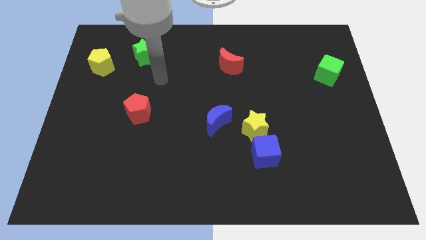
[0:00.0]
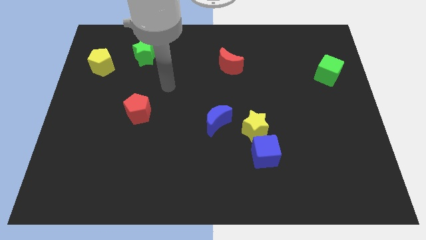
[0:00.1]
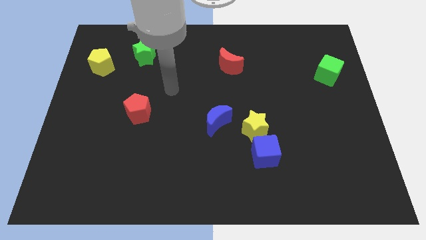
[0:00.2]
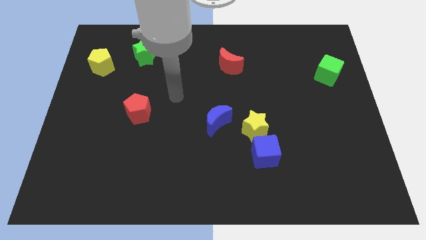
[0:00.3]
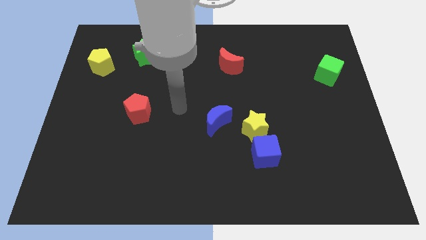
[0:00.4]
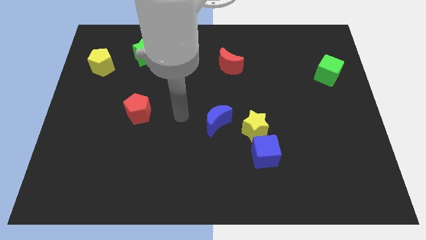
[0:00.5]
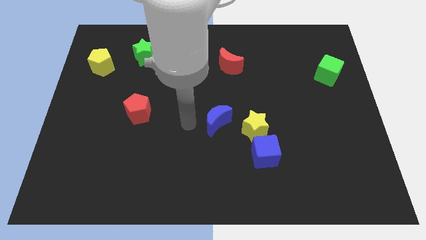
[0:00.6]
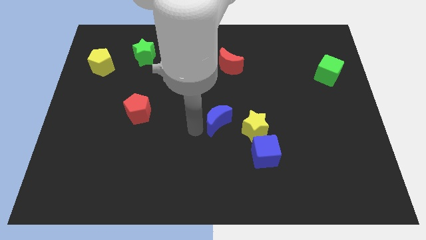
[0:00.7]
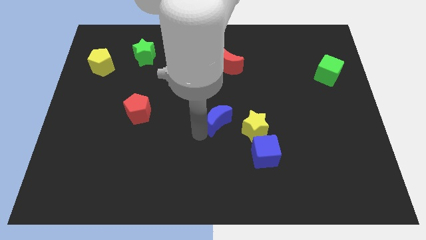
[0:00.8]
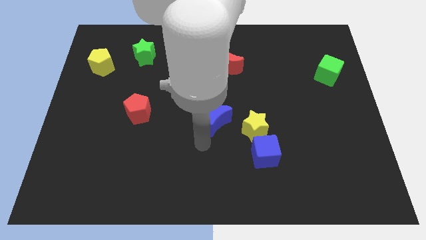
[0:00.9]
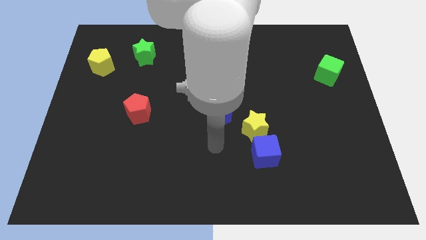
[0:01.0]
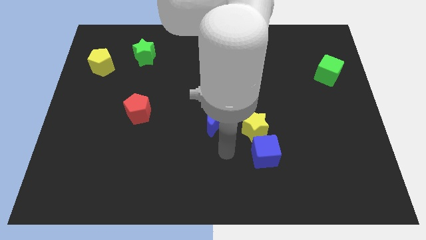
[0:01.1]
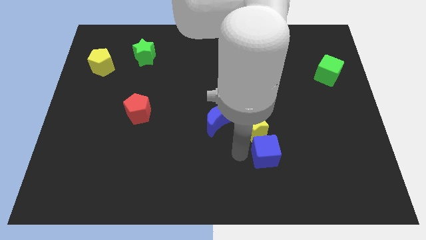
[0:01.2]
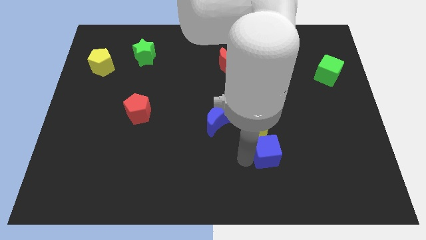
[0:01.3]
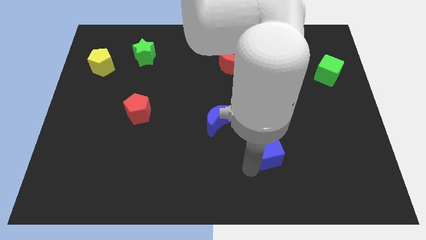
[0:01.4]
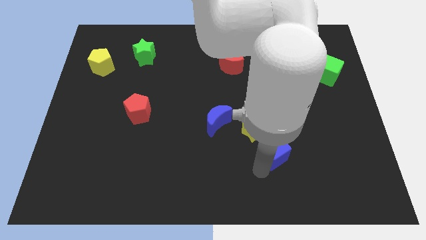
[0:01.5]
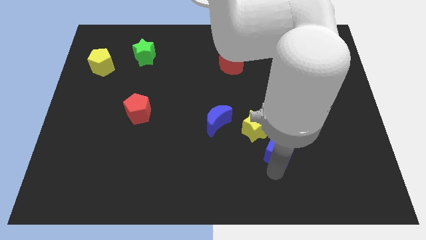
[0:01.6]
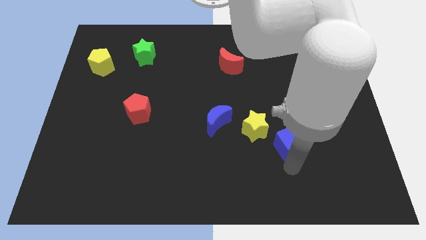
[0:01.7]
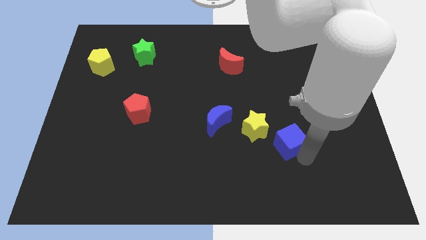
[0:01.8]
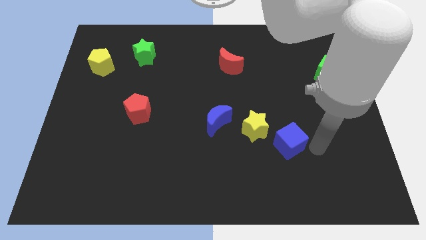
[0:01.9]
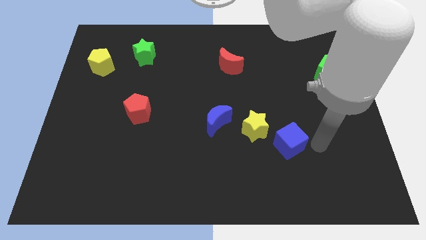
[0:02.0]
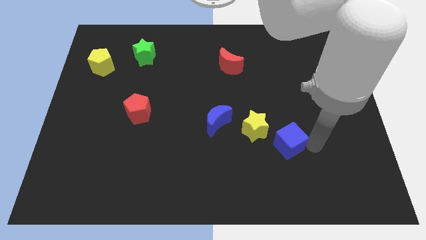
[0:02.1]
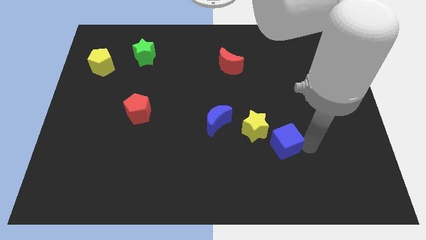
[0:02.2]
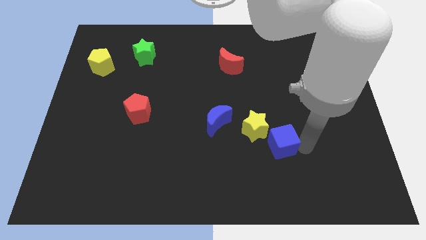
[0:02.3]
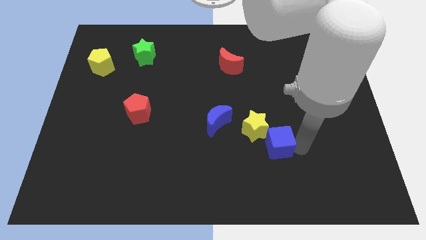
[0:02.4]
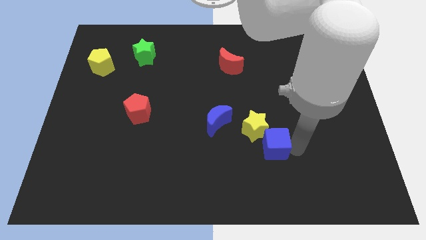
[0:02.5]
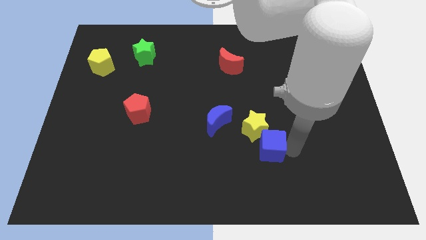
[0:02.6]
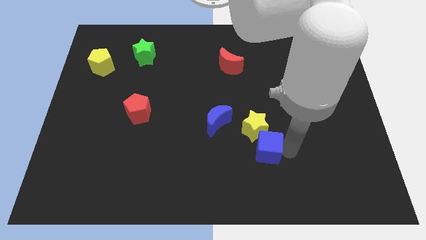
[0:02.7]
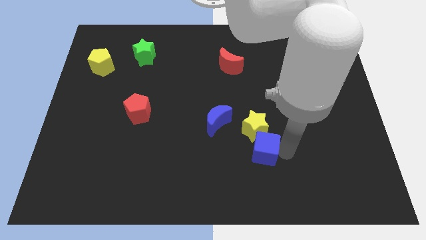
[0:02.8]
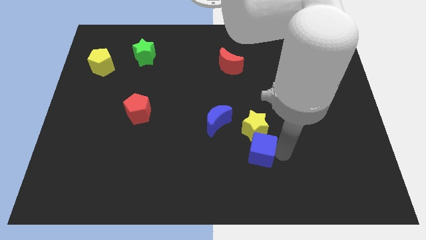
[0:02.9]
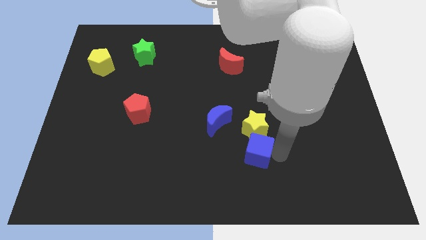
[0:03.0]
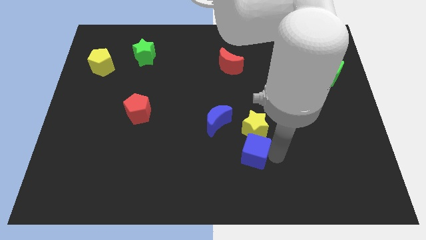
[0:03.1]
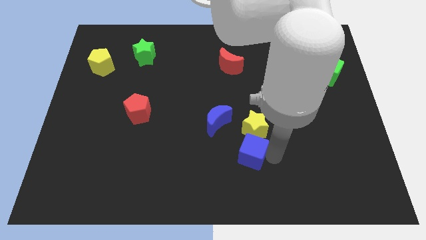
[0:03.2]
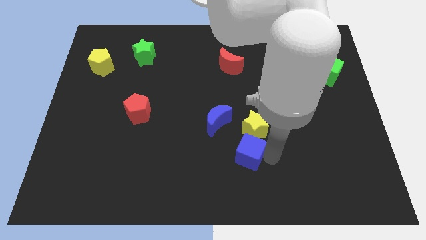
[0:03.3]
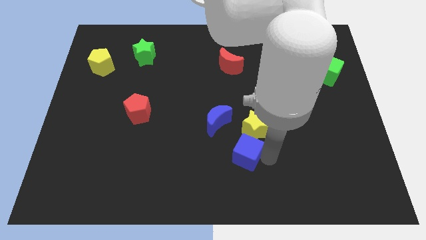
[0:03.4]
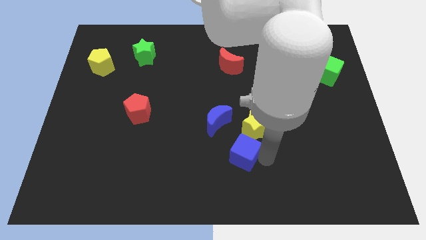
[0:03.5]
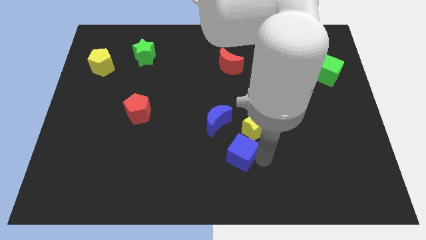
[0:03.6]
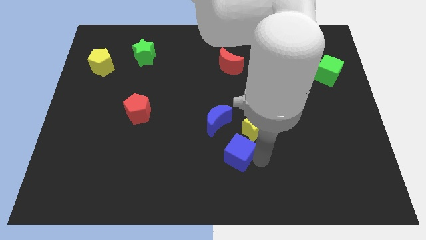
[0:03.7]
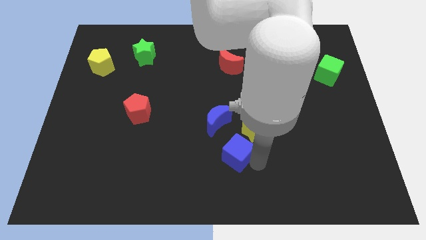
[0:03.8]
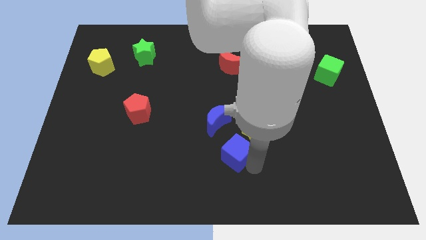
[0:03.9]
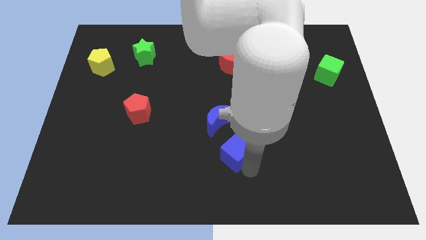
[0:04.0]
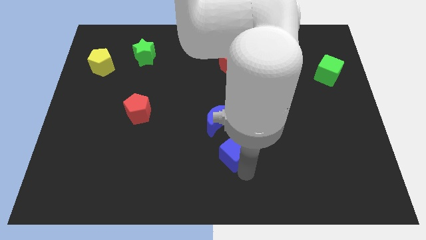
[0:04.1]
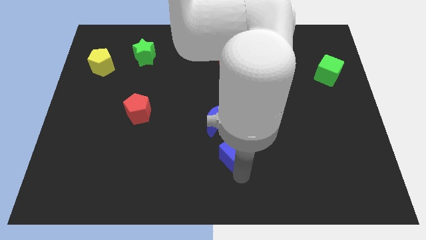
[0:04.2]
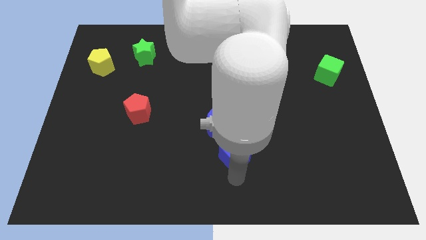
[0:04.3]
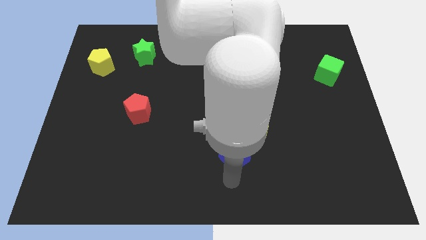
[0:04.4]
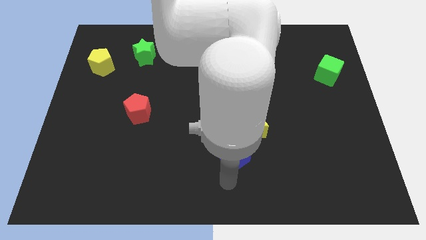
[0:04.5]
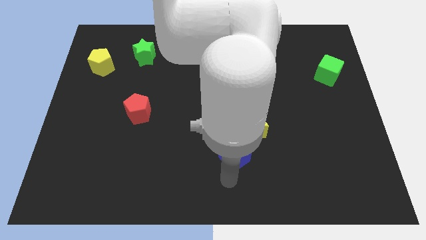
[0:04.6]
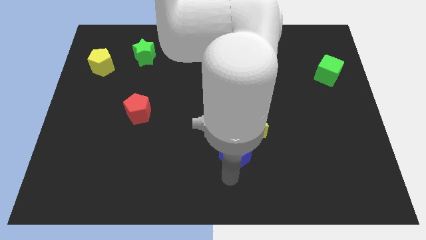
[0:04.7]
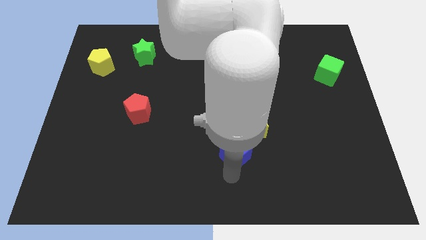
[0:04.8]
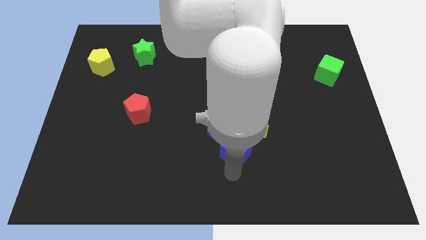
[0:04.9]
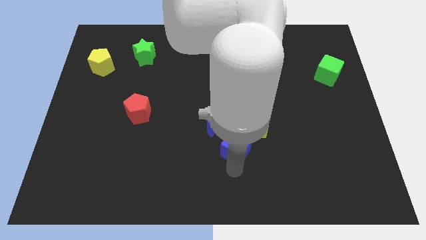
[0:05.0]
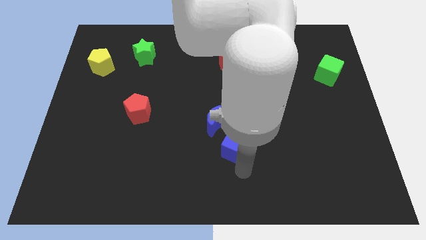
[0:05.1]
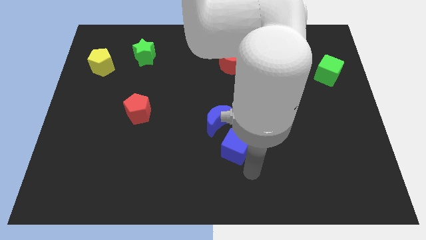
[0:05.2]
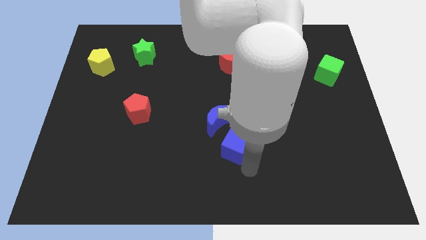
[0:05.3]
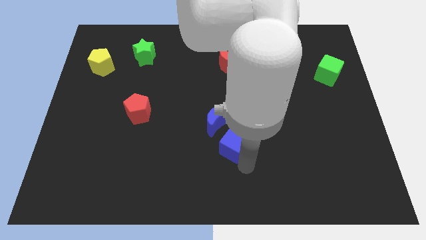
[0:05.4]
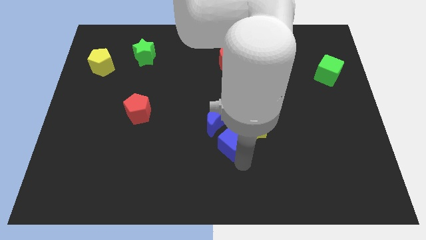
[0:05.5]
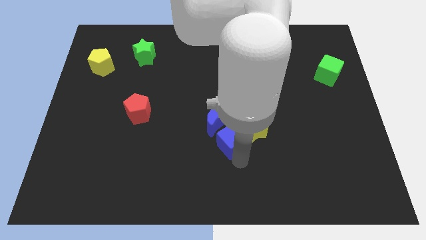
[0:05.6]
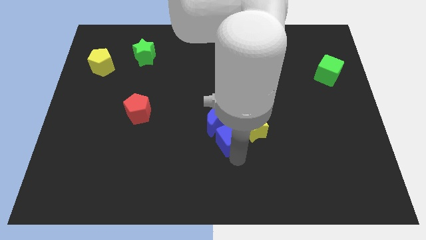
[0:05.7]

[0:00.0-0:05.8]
push the blue cube next to the blue moon

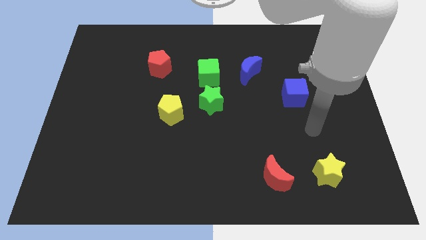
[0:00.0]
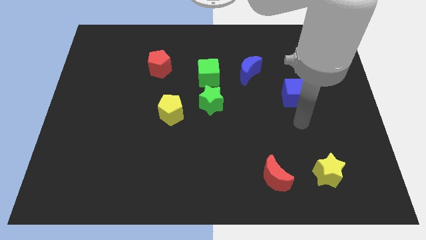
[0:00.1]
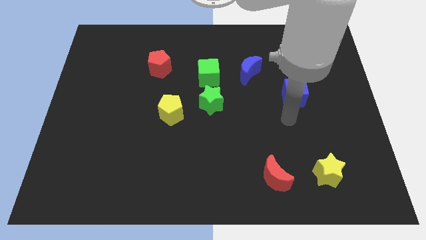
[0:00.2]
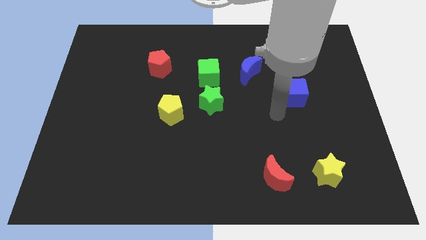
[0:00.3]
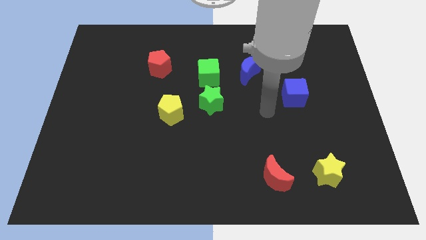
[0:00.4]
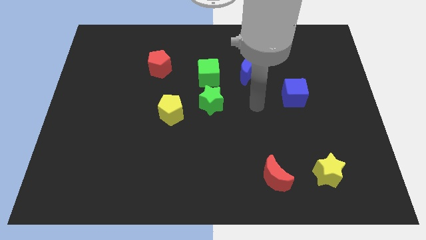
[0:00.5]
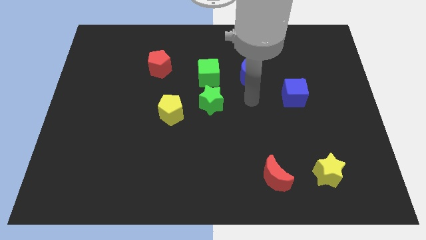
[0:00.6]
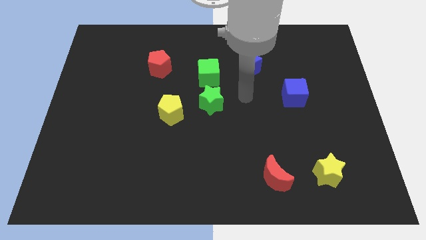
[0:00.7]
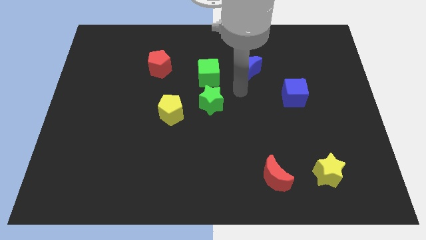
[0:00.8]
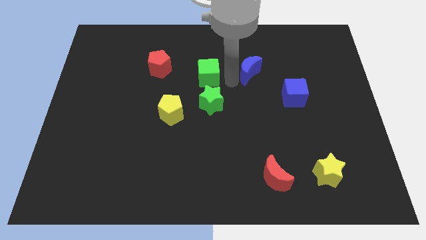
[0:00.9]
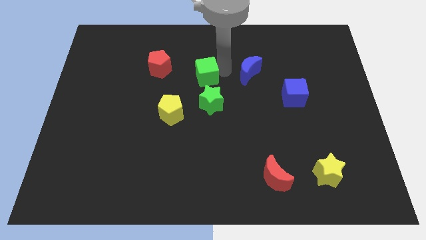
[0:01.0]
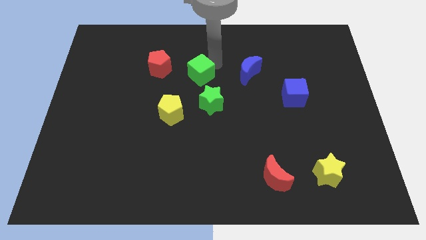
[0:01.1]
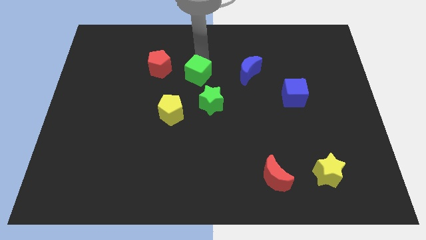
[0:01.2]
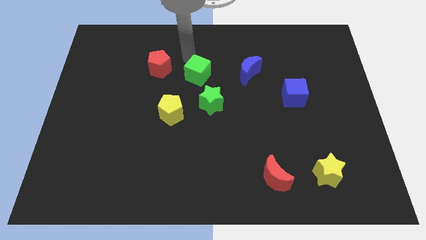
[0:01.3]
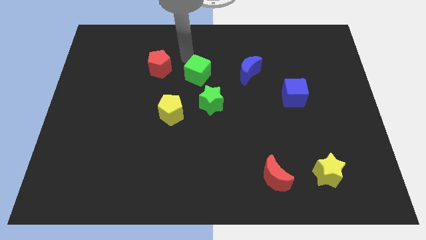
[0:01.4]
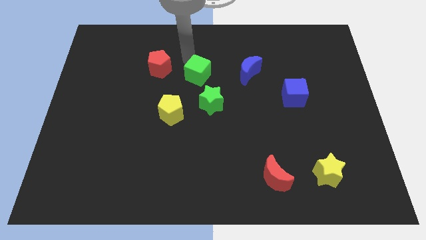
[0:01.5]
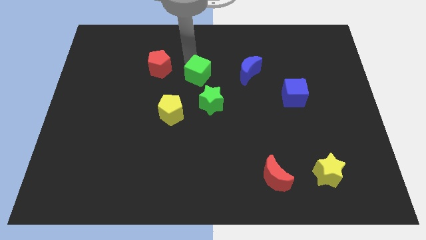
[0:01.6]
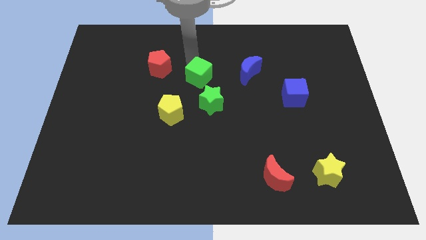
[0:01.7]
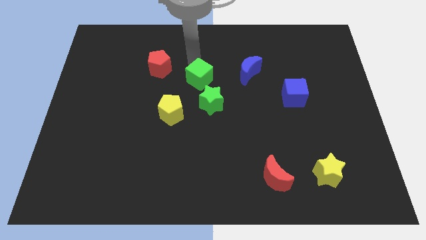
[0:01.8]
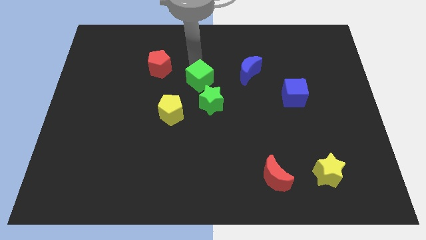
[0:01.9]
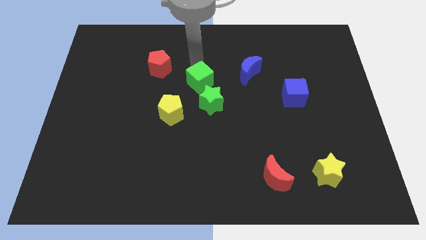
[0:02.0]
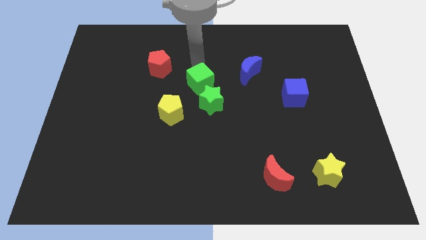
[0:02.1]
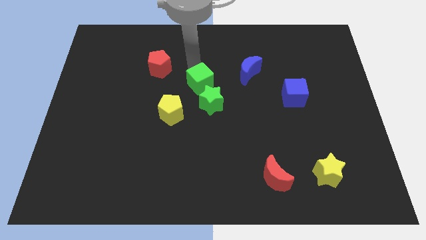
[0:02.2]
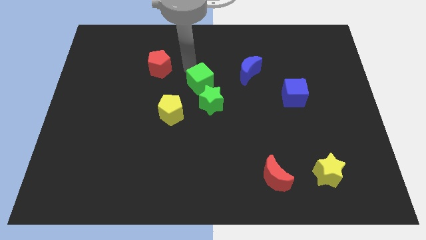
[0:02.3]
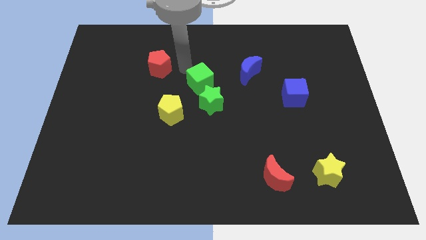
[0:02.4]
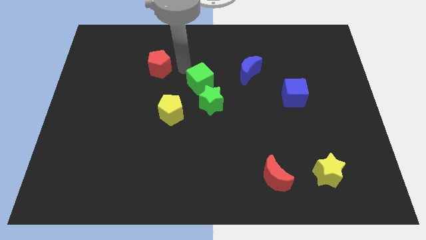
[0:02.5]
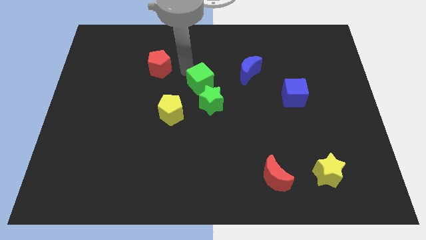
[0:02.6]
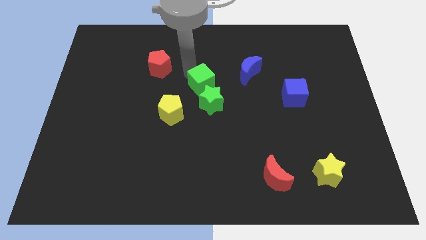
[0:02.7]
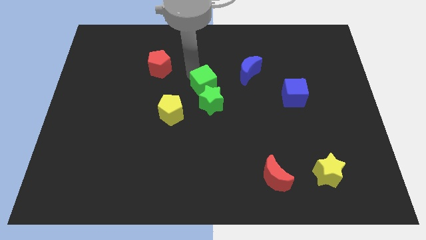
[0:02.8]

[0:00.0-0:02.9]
move the green cube next to the green star
